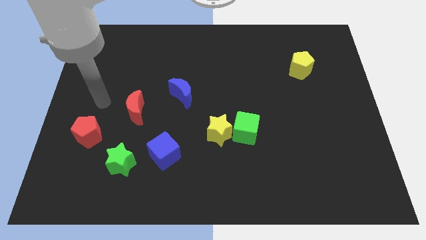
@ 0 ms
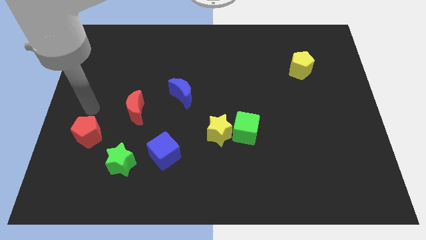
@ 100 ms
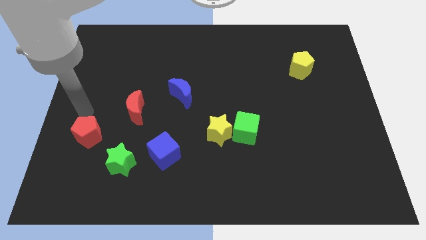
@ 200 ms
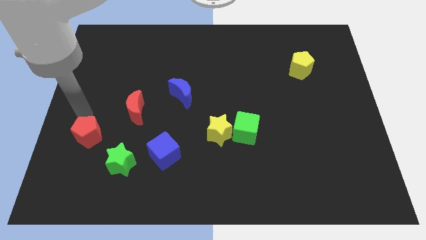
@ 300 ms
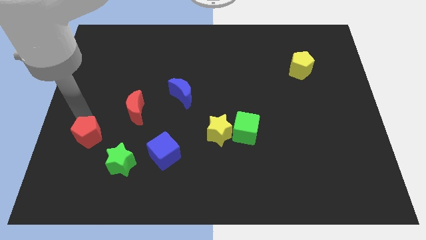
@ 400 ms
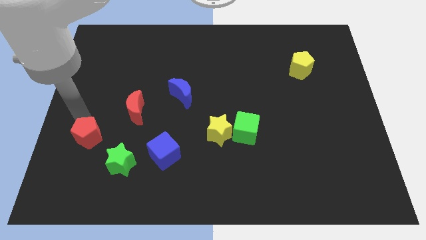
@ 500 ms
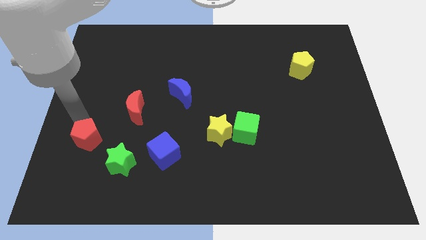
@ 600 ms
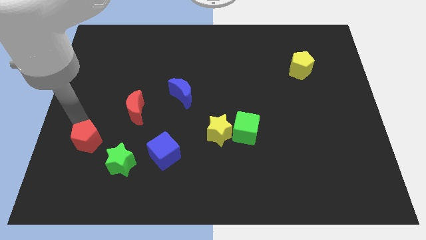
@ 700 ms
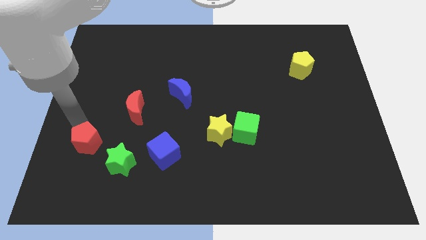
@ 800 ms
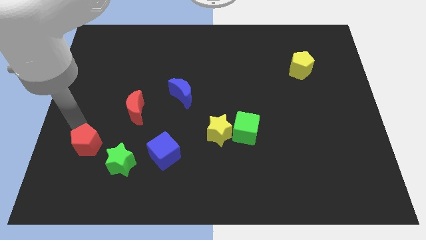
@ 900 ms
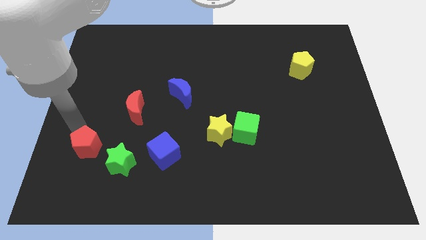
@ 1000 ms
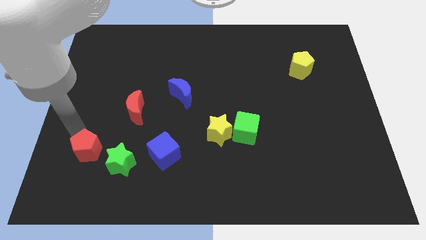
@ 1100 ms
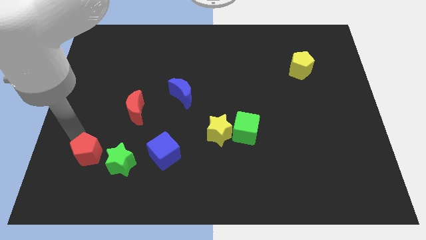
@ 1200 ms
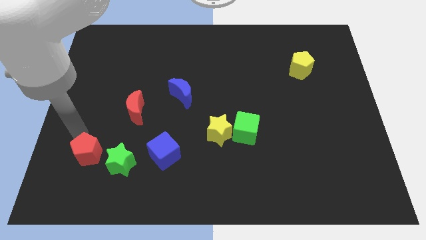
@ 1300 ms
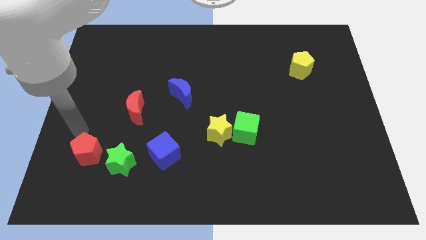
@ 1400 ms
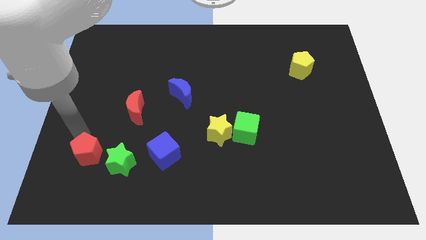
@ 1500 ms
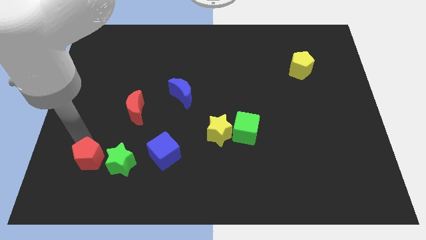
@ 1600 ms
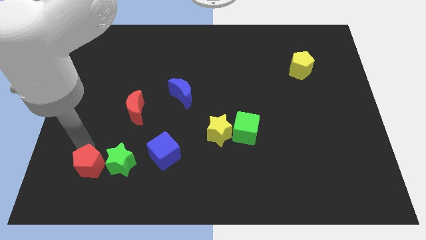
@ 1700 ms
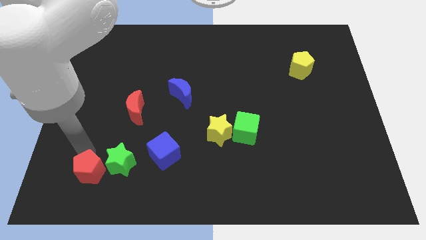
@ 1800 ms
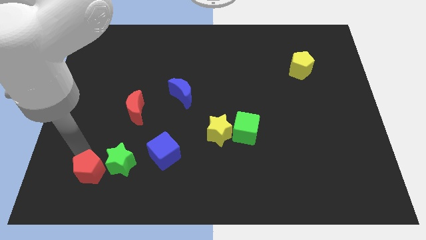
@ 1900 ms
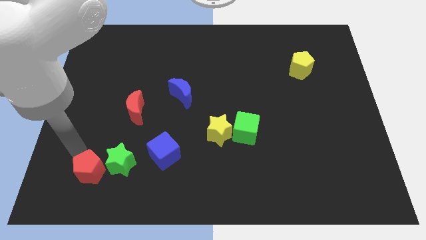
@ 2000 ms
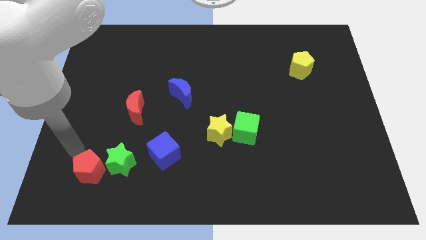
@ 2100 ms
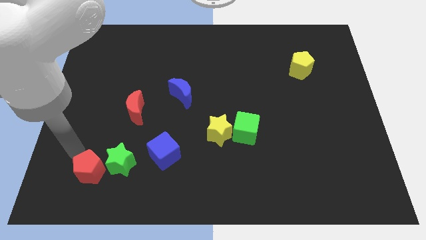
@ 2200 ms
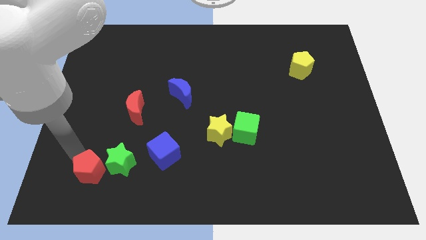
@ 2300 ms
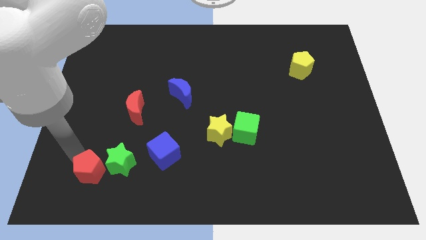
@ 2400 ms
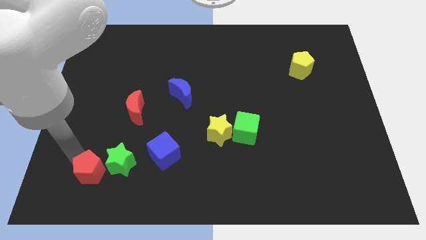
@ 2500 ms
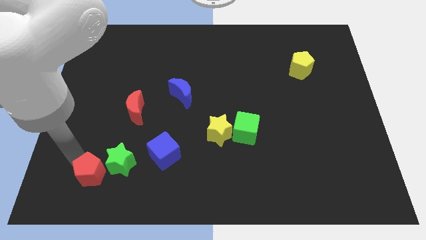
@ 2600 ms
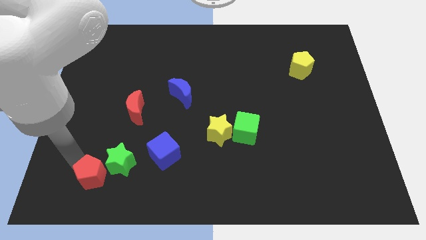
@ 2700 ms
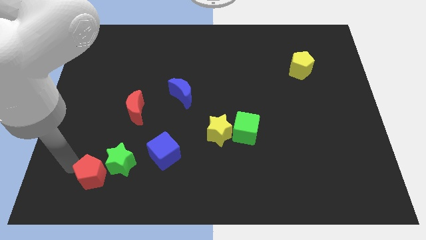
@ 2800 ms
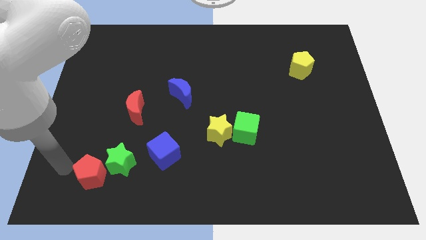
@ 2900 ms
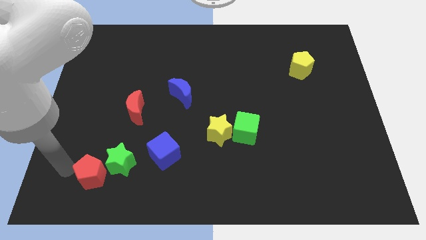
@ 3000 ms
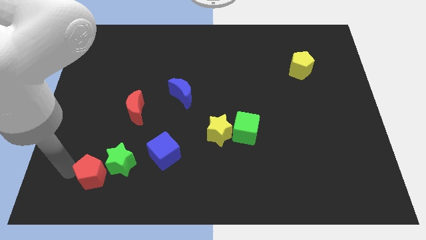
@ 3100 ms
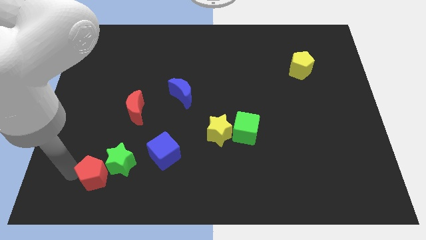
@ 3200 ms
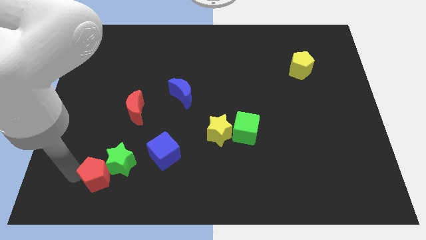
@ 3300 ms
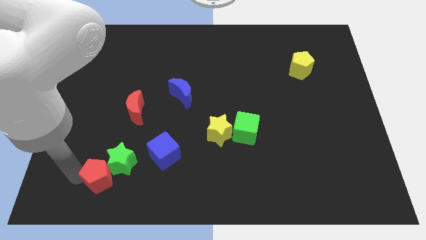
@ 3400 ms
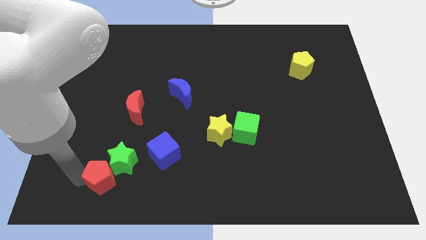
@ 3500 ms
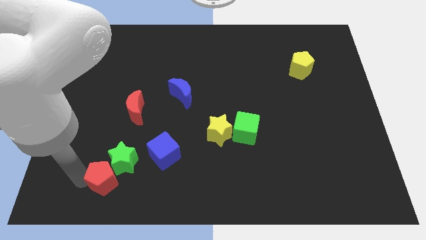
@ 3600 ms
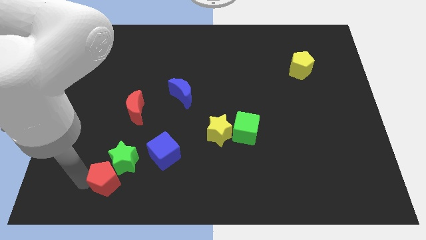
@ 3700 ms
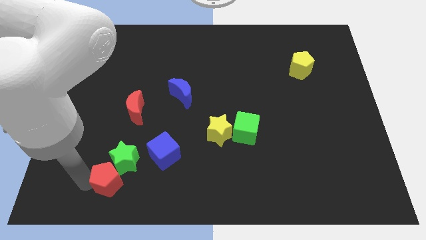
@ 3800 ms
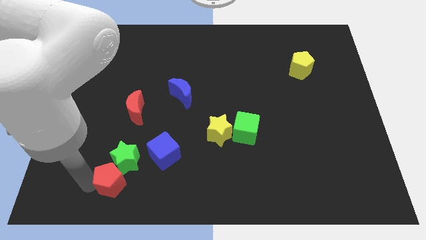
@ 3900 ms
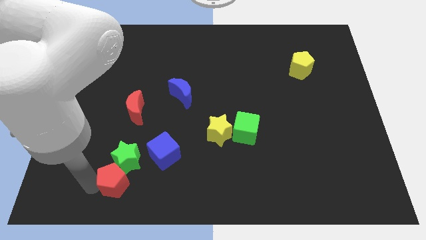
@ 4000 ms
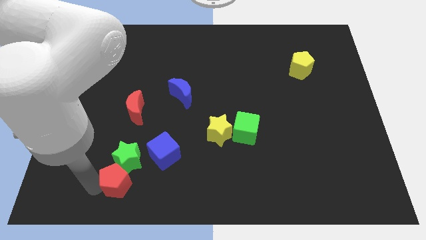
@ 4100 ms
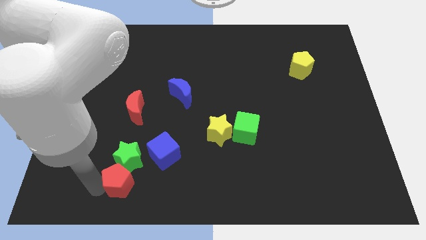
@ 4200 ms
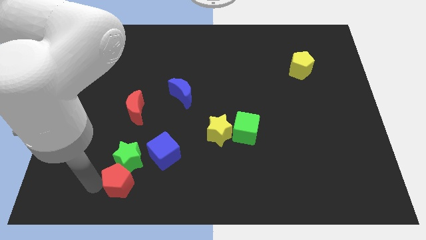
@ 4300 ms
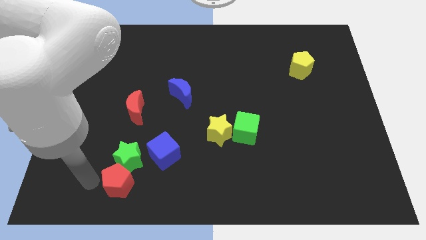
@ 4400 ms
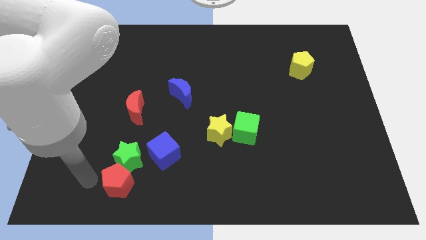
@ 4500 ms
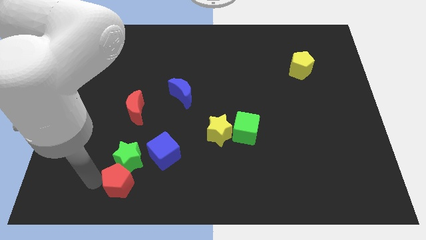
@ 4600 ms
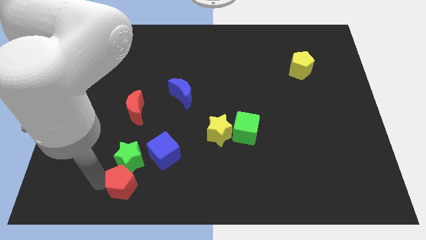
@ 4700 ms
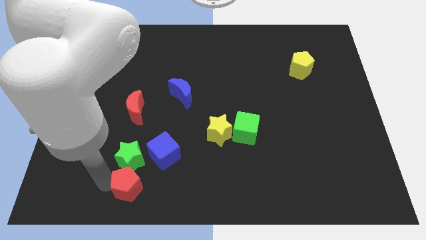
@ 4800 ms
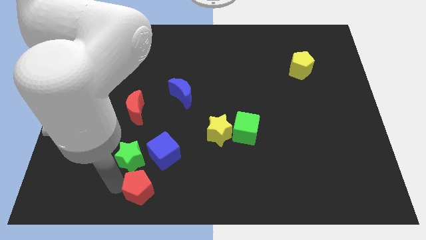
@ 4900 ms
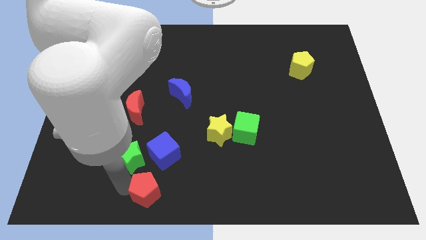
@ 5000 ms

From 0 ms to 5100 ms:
put the red pentagon to the bottom

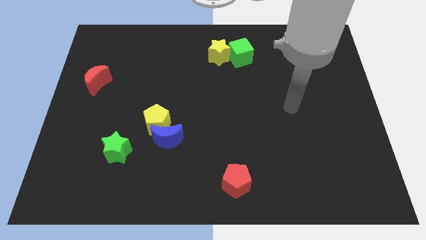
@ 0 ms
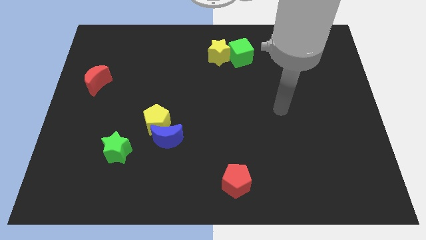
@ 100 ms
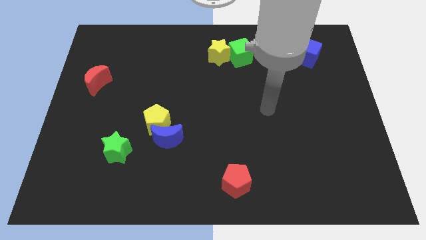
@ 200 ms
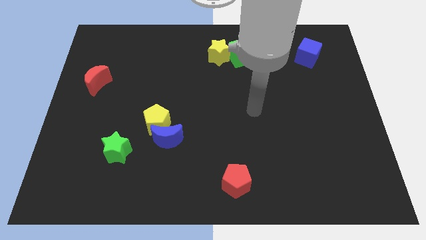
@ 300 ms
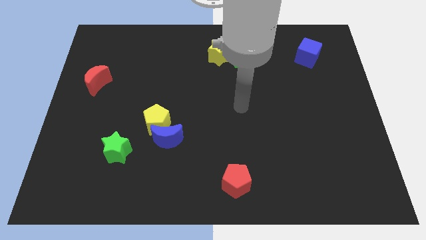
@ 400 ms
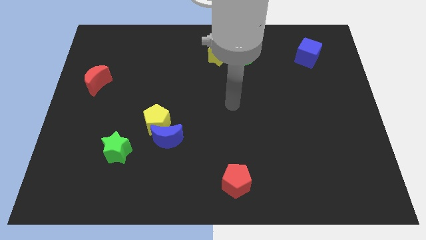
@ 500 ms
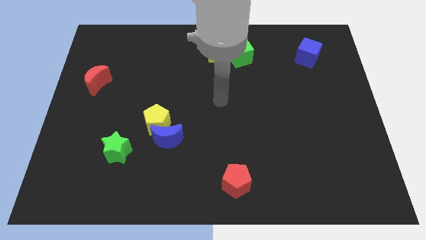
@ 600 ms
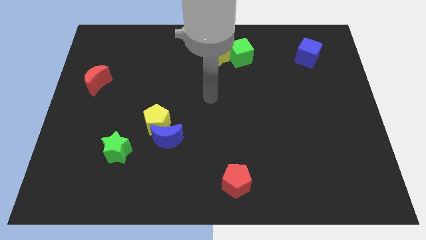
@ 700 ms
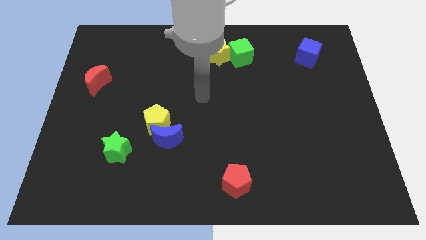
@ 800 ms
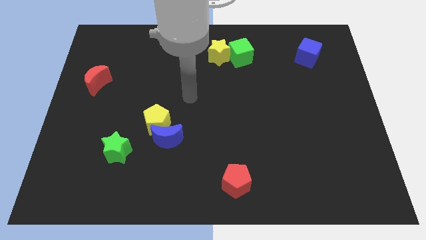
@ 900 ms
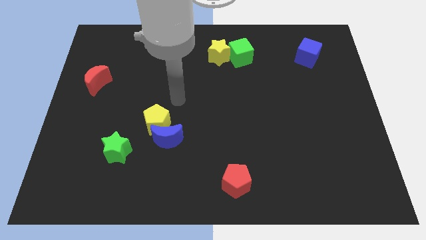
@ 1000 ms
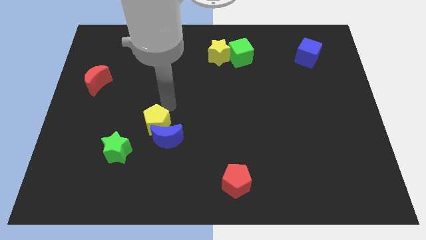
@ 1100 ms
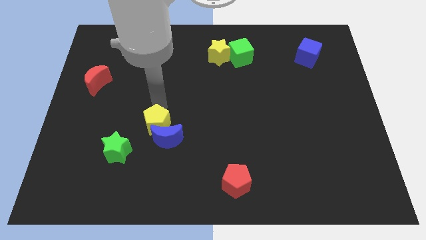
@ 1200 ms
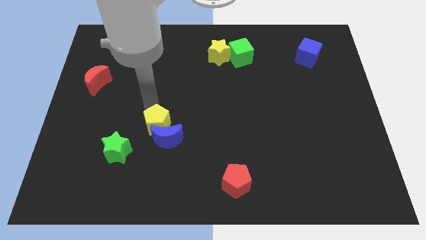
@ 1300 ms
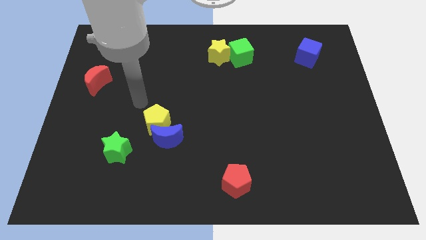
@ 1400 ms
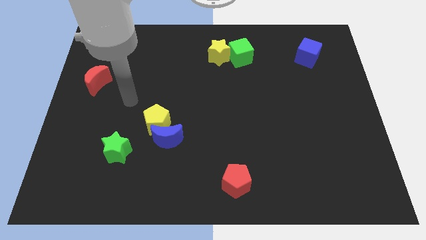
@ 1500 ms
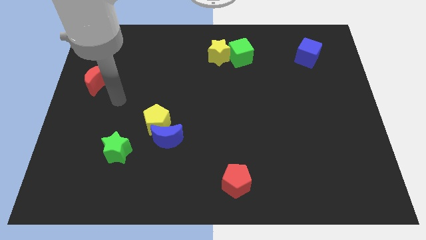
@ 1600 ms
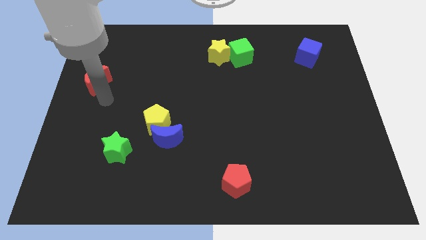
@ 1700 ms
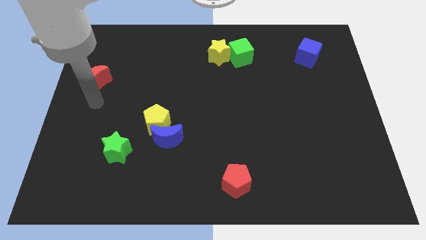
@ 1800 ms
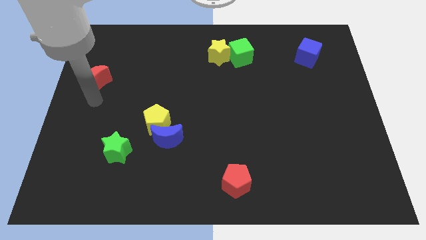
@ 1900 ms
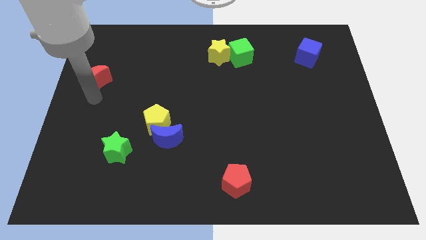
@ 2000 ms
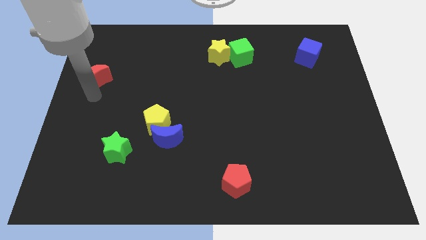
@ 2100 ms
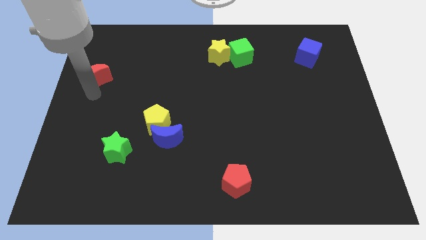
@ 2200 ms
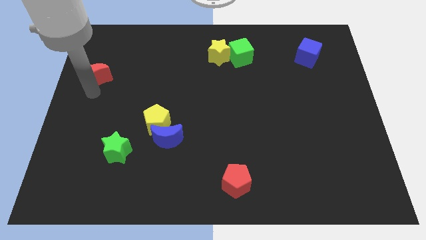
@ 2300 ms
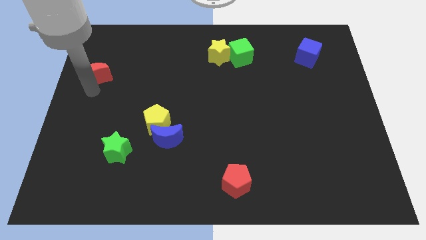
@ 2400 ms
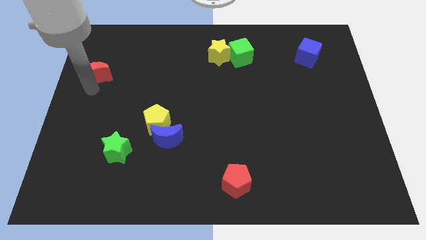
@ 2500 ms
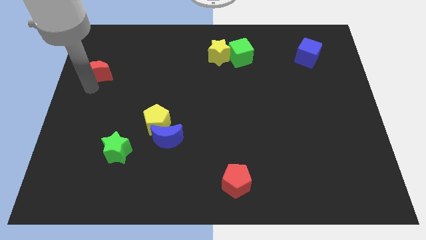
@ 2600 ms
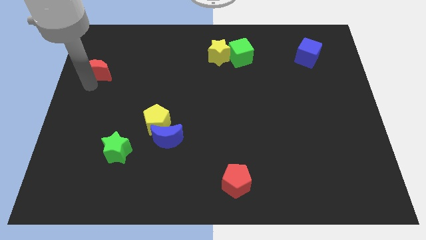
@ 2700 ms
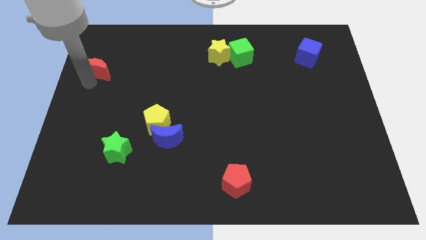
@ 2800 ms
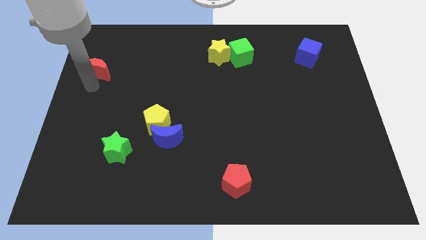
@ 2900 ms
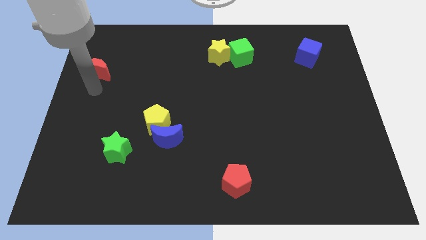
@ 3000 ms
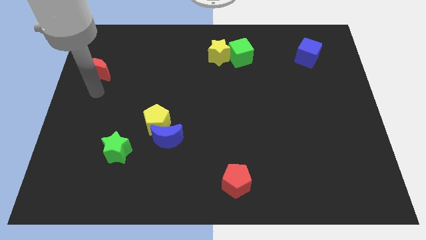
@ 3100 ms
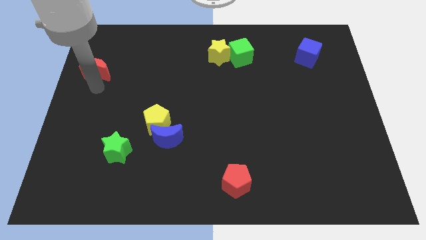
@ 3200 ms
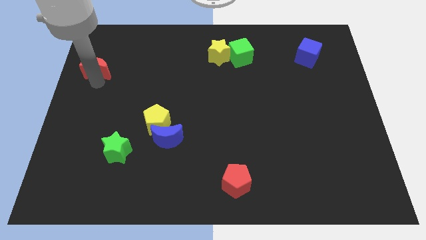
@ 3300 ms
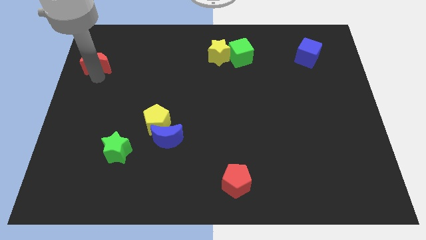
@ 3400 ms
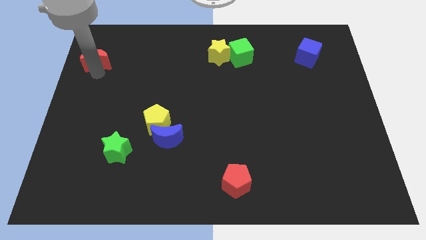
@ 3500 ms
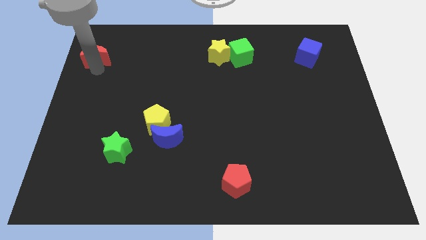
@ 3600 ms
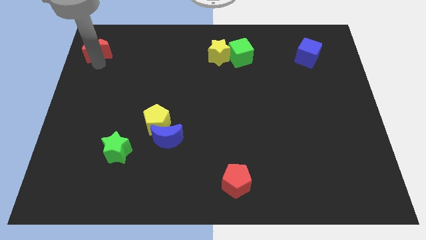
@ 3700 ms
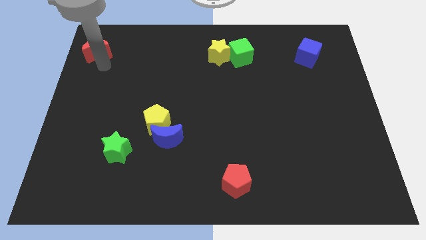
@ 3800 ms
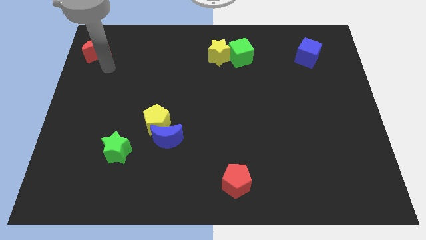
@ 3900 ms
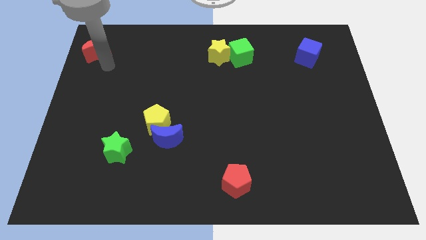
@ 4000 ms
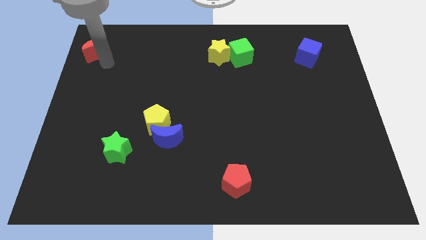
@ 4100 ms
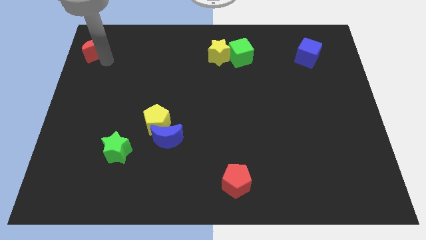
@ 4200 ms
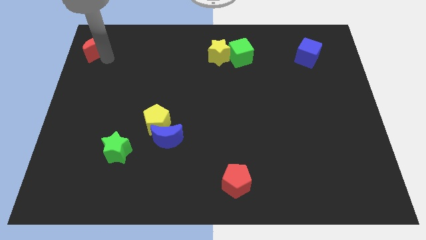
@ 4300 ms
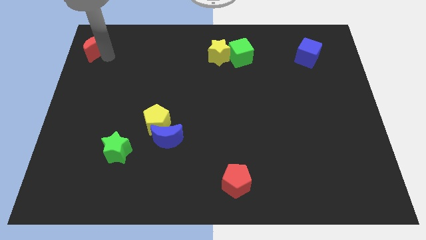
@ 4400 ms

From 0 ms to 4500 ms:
put the red moon to the upper left corner
